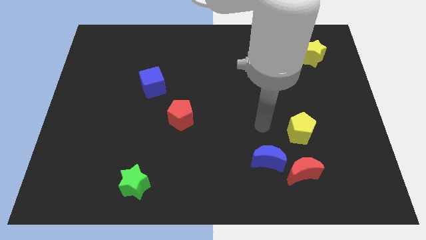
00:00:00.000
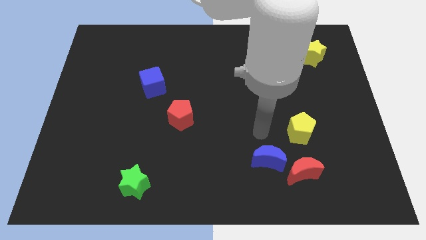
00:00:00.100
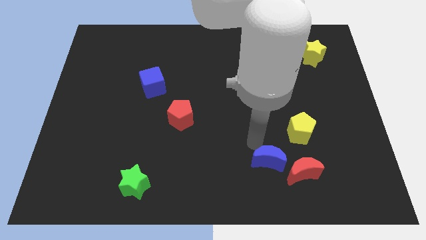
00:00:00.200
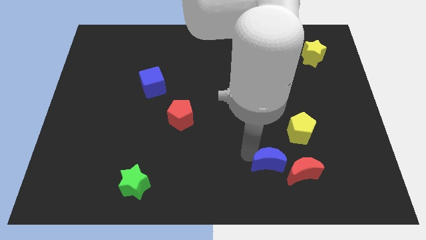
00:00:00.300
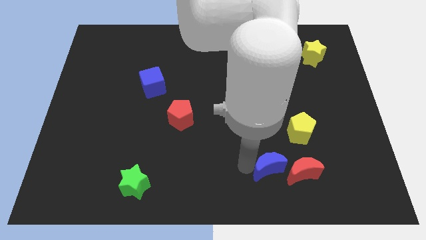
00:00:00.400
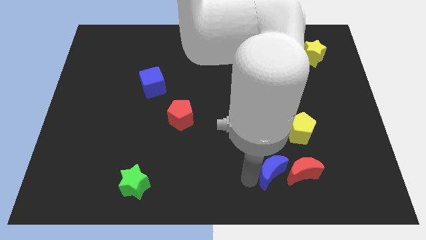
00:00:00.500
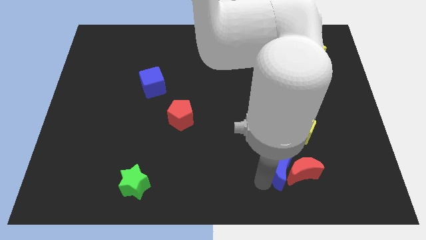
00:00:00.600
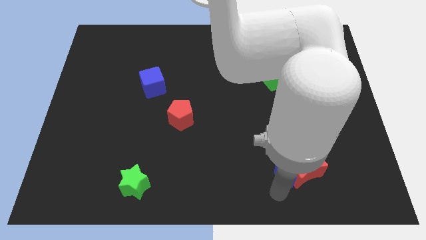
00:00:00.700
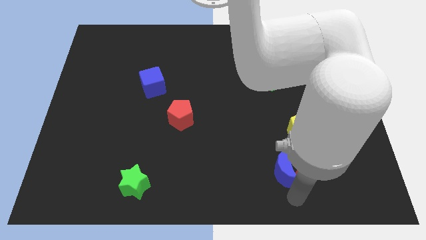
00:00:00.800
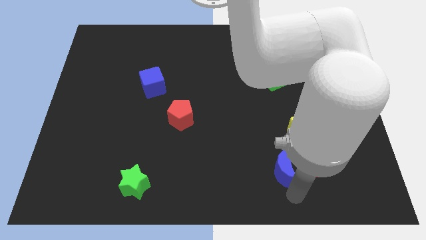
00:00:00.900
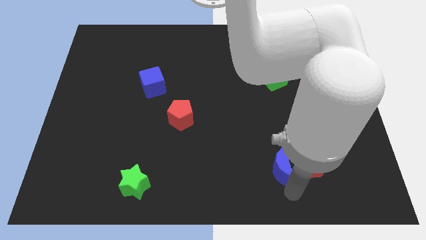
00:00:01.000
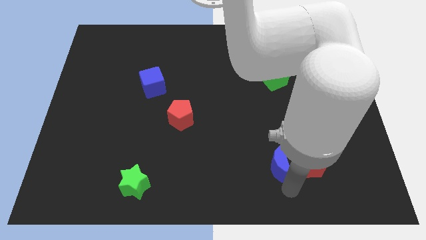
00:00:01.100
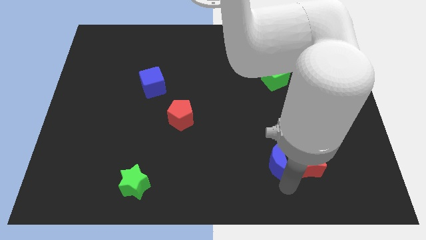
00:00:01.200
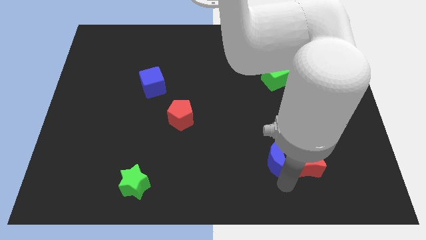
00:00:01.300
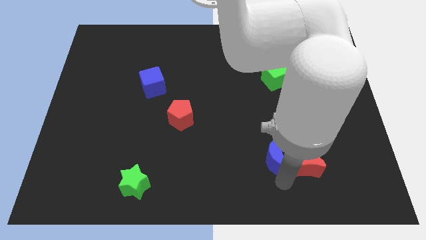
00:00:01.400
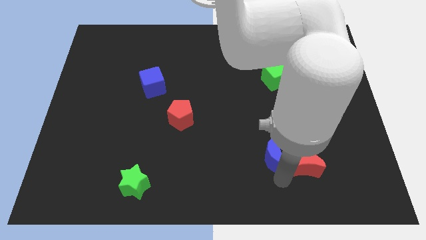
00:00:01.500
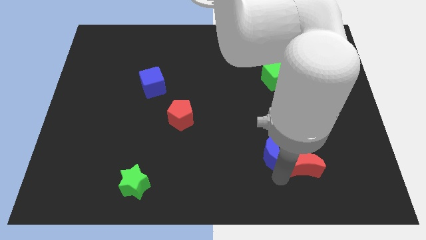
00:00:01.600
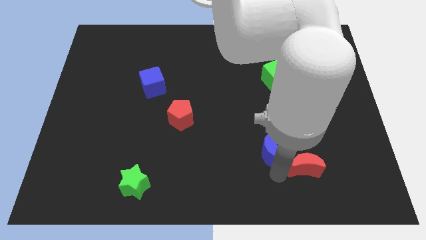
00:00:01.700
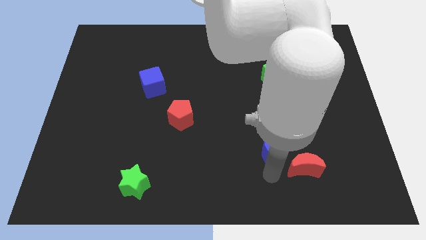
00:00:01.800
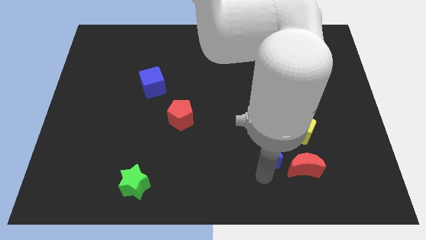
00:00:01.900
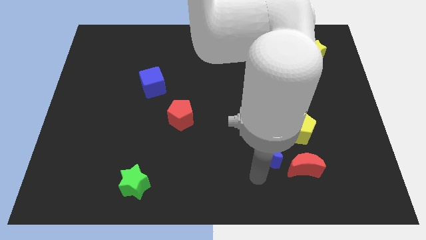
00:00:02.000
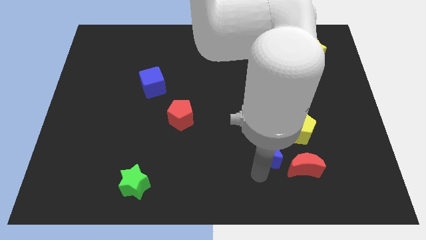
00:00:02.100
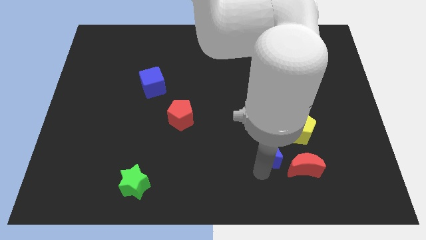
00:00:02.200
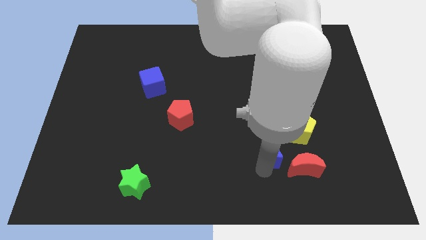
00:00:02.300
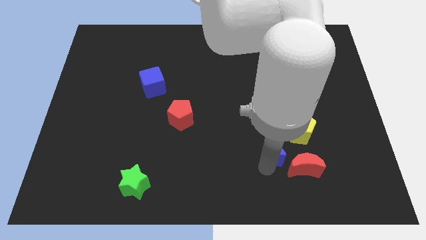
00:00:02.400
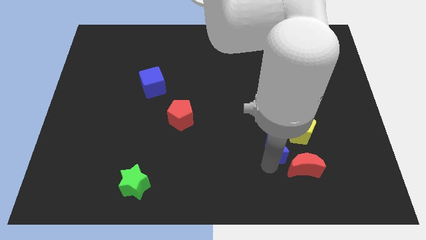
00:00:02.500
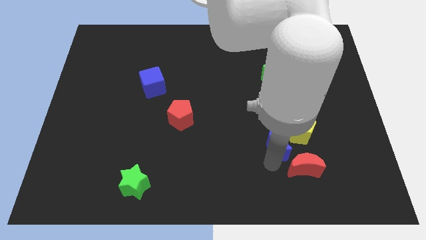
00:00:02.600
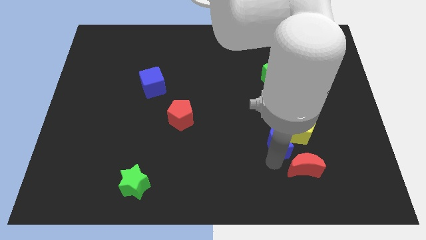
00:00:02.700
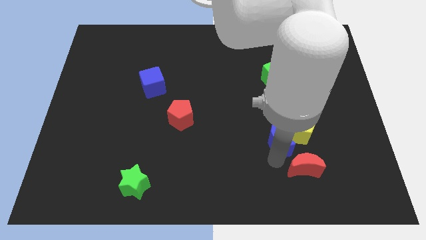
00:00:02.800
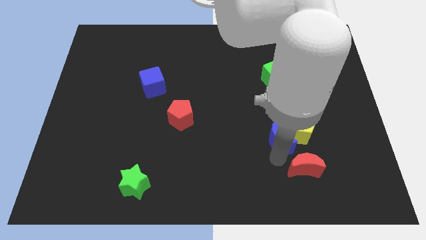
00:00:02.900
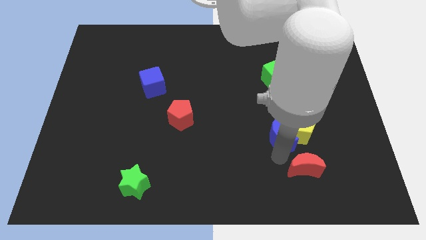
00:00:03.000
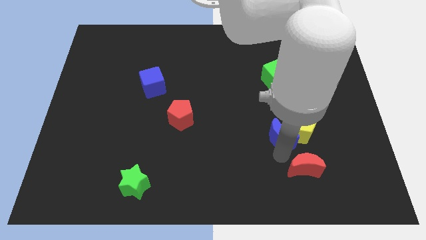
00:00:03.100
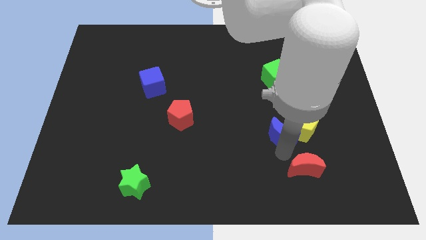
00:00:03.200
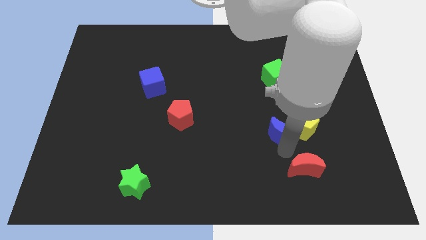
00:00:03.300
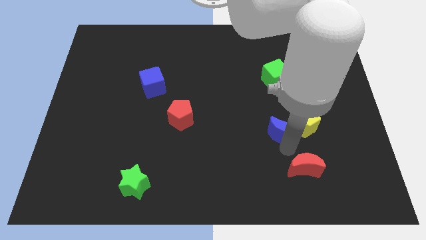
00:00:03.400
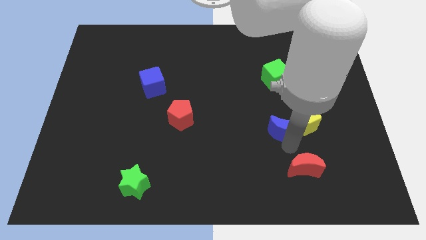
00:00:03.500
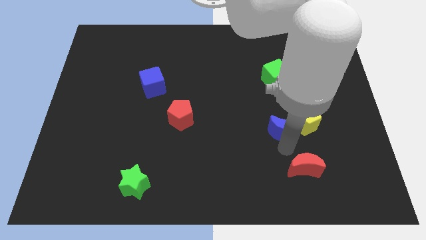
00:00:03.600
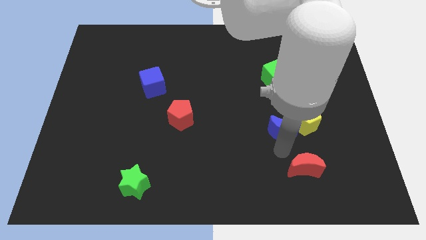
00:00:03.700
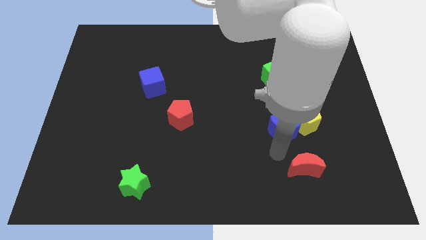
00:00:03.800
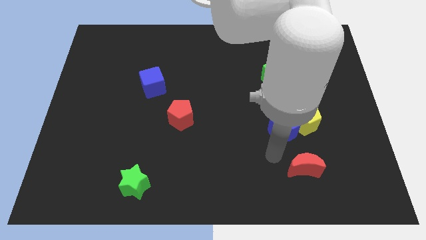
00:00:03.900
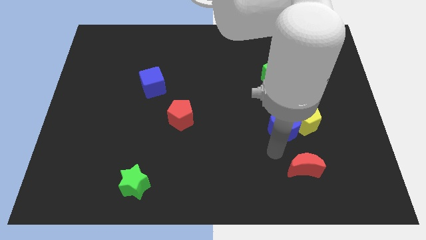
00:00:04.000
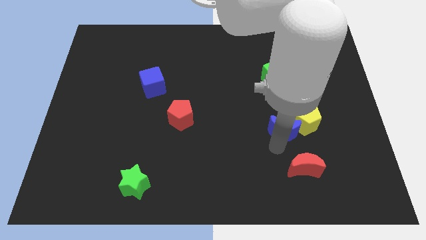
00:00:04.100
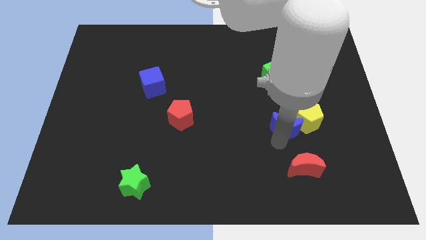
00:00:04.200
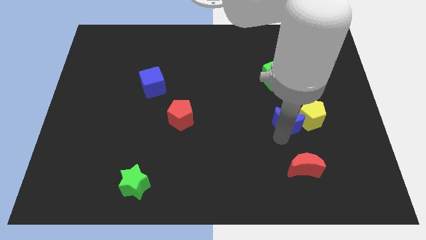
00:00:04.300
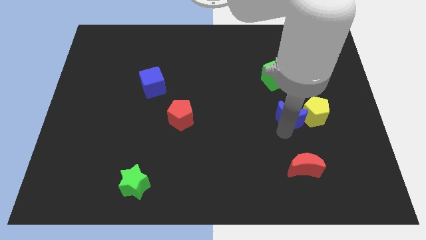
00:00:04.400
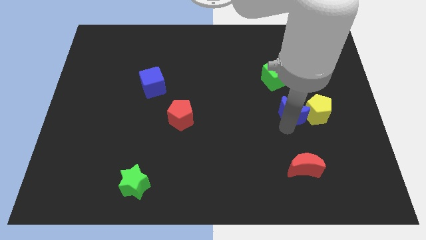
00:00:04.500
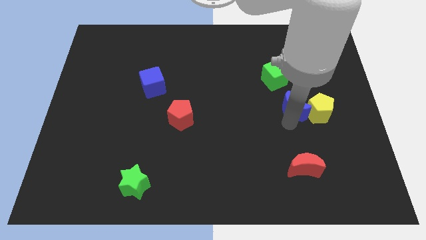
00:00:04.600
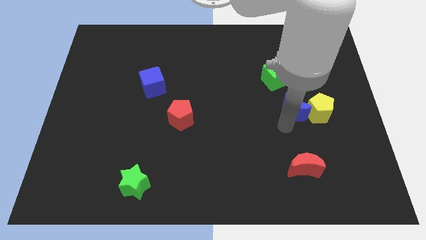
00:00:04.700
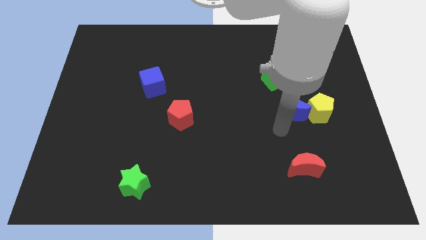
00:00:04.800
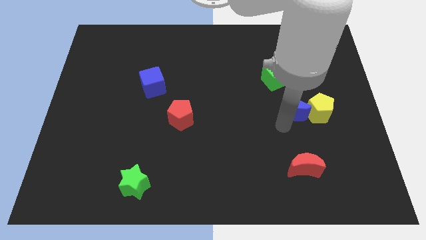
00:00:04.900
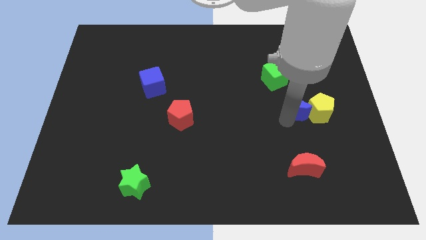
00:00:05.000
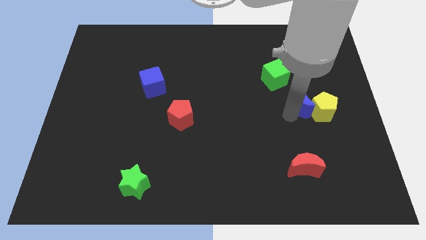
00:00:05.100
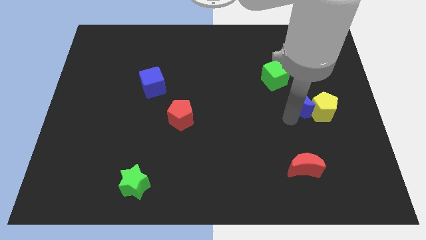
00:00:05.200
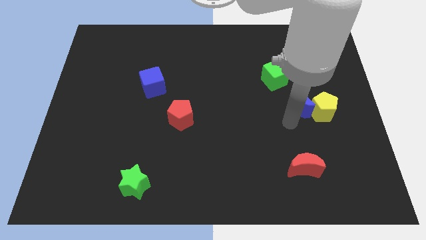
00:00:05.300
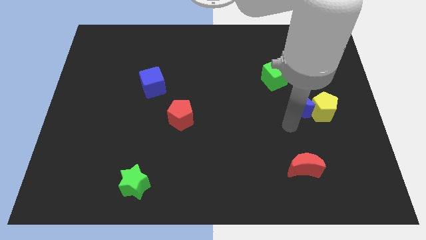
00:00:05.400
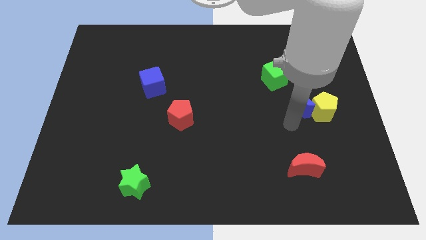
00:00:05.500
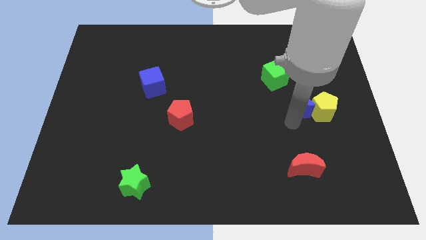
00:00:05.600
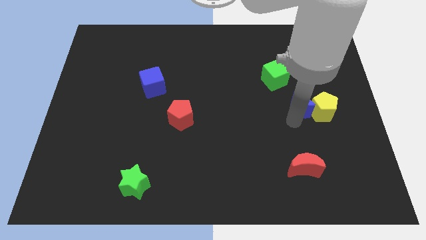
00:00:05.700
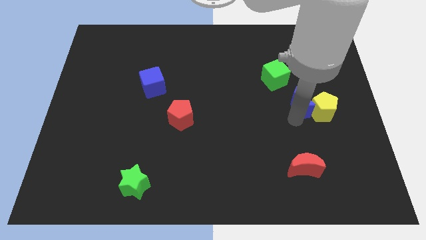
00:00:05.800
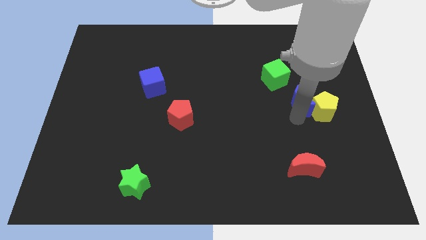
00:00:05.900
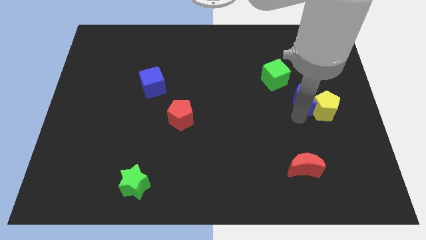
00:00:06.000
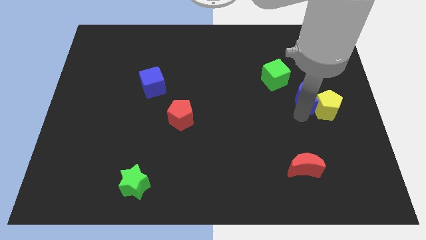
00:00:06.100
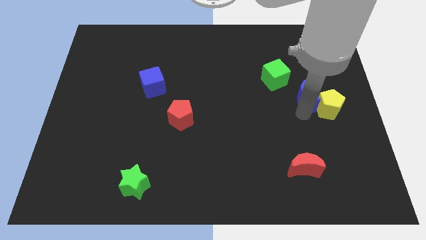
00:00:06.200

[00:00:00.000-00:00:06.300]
push the blue moon to the bottom side of the yellow star
